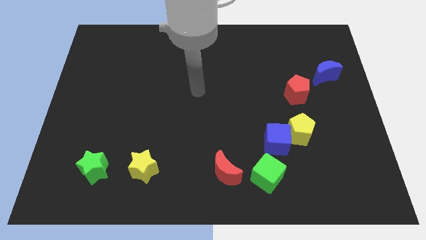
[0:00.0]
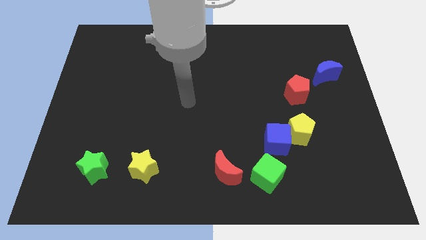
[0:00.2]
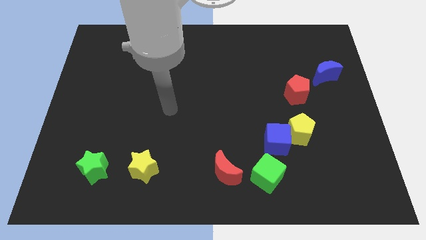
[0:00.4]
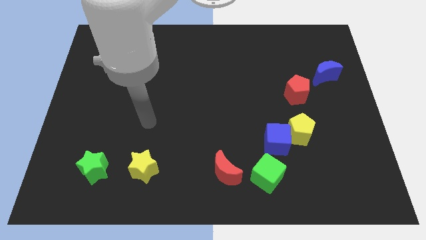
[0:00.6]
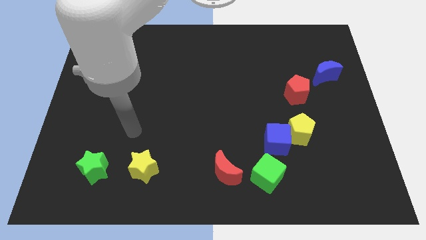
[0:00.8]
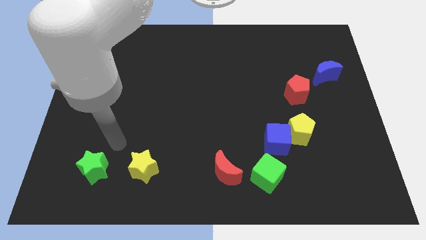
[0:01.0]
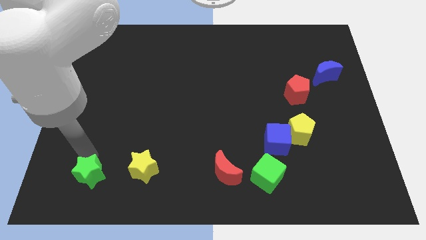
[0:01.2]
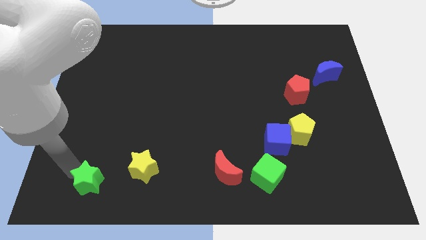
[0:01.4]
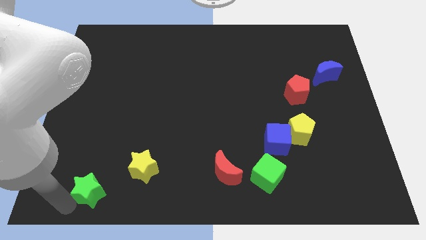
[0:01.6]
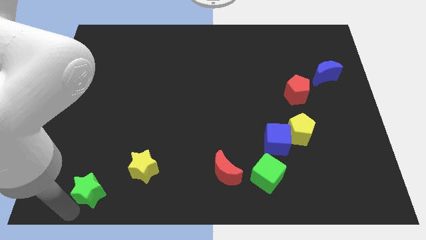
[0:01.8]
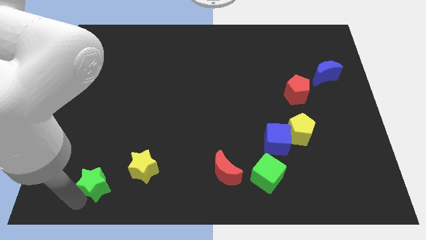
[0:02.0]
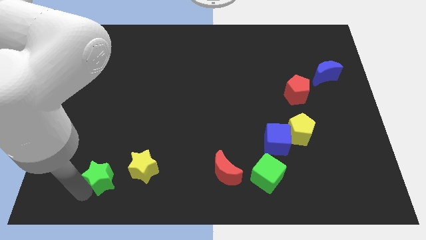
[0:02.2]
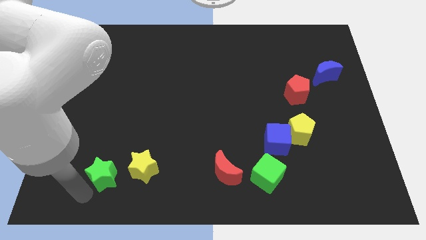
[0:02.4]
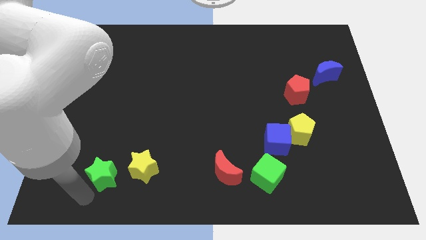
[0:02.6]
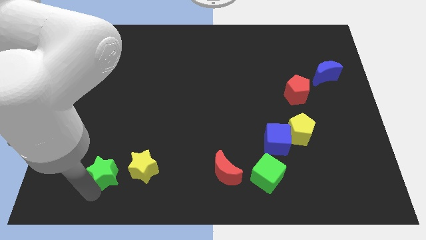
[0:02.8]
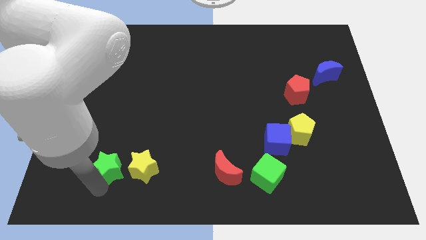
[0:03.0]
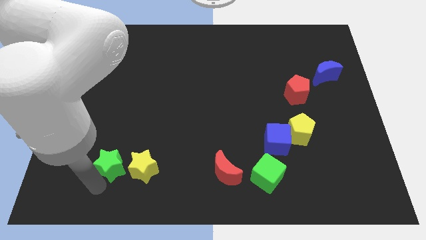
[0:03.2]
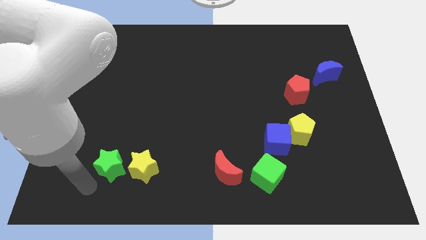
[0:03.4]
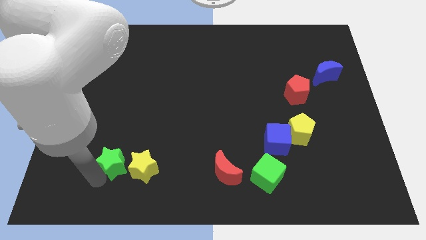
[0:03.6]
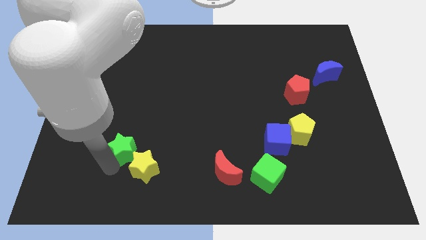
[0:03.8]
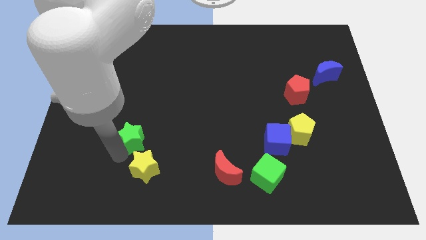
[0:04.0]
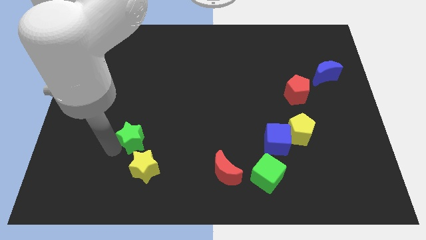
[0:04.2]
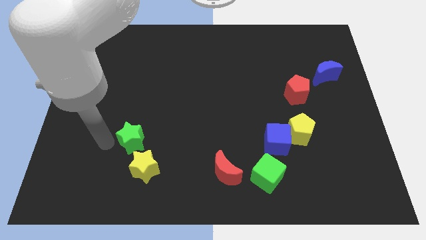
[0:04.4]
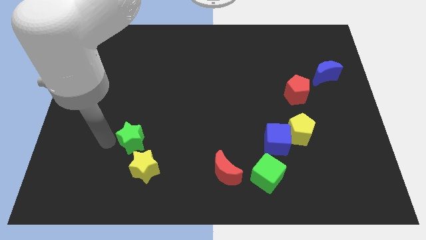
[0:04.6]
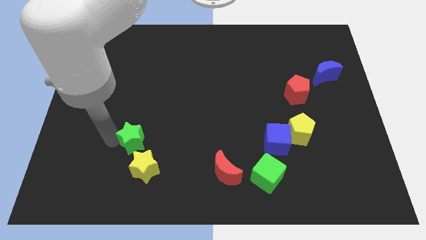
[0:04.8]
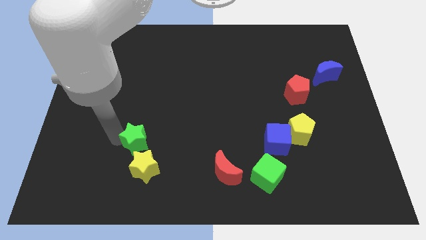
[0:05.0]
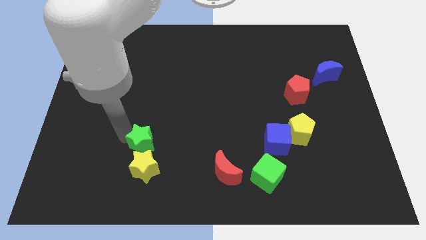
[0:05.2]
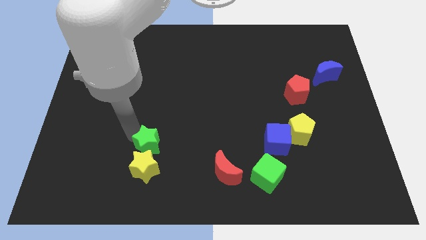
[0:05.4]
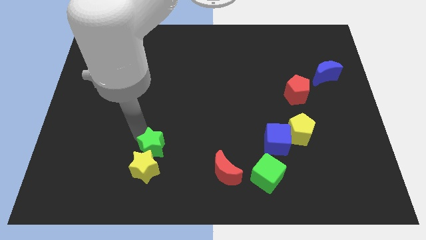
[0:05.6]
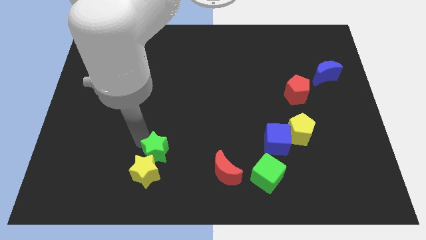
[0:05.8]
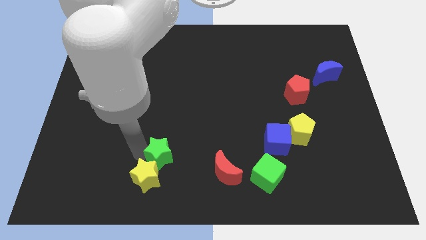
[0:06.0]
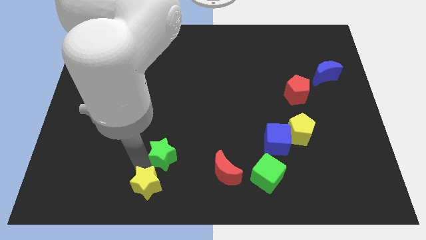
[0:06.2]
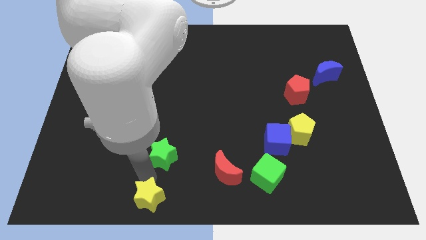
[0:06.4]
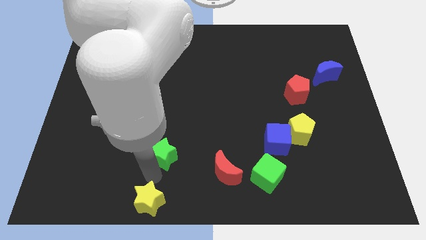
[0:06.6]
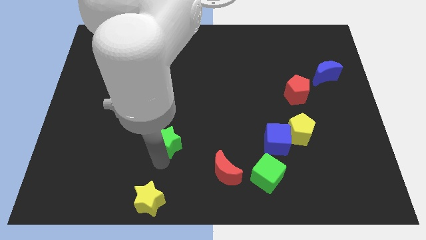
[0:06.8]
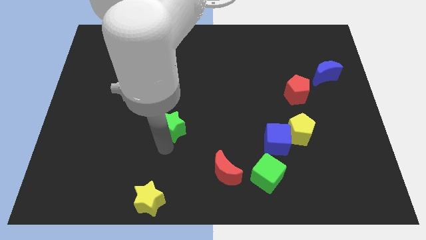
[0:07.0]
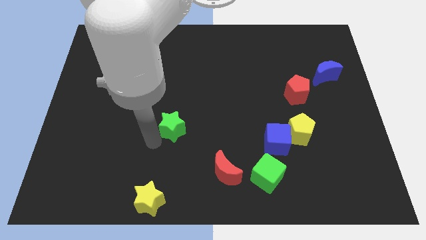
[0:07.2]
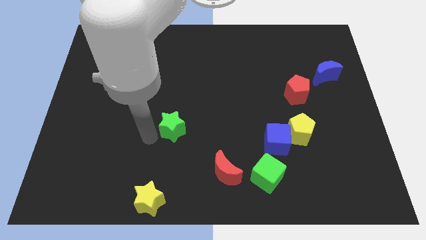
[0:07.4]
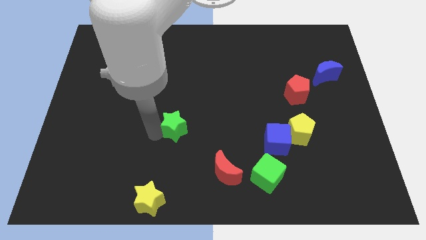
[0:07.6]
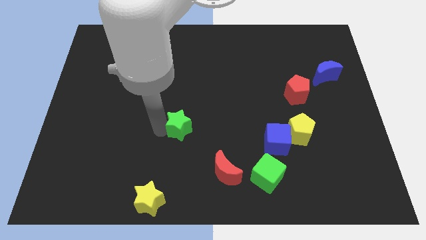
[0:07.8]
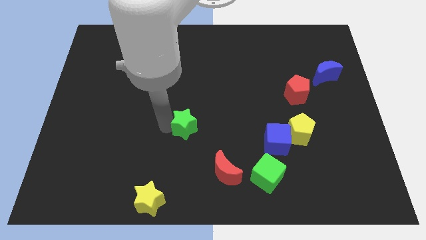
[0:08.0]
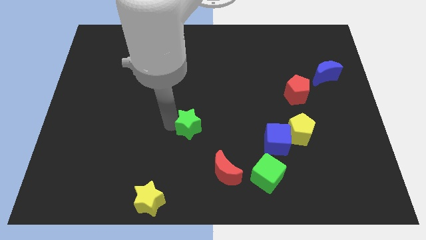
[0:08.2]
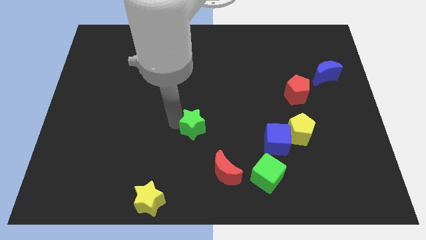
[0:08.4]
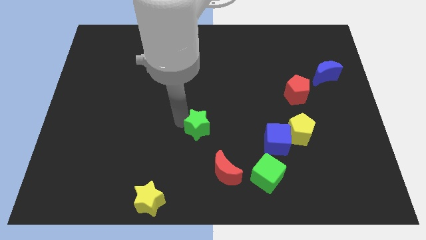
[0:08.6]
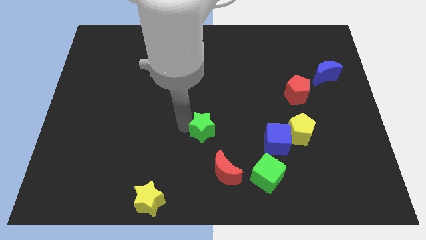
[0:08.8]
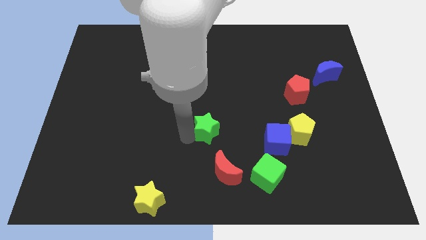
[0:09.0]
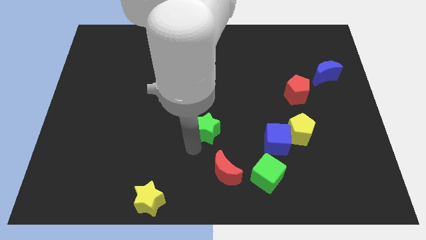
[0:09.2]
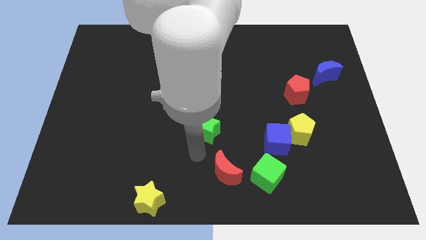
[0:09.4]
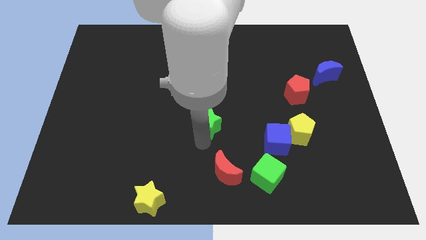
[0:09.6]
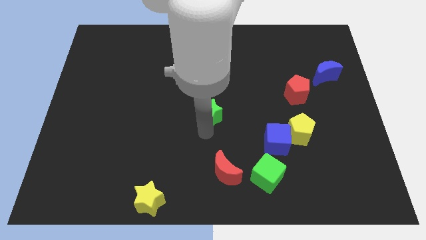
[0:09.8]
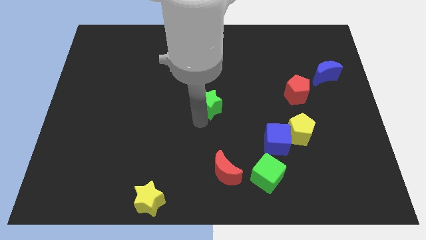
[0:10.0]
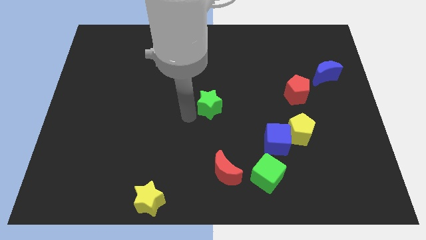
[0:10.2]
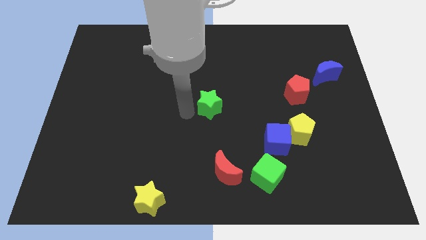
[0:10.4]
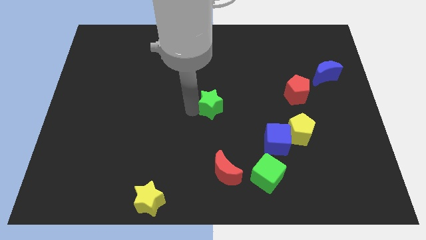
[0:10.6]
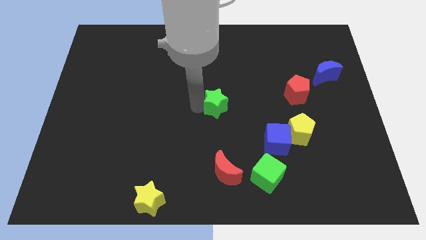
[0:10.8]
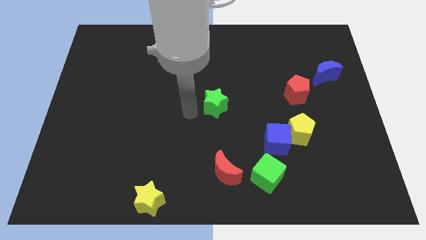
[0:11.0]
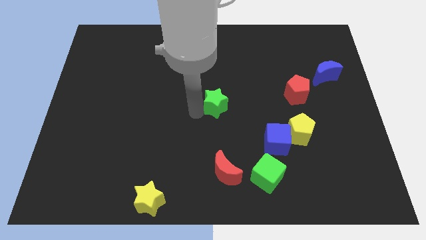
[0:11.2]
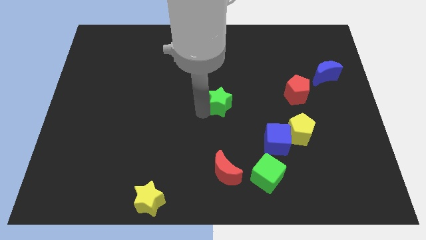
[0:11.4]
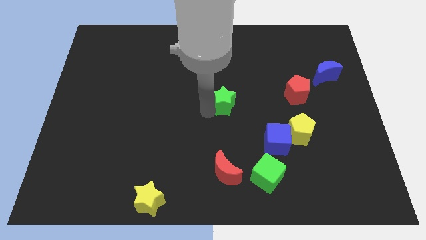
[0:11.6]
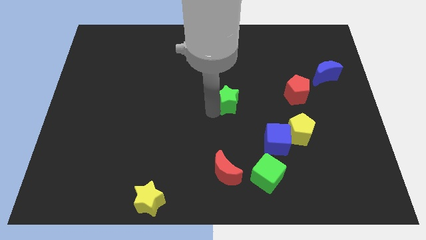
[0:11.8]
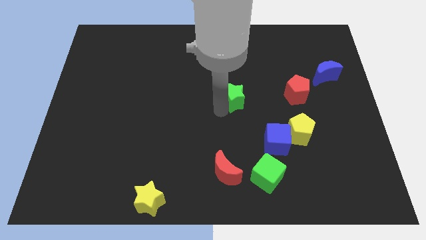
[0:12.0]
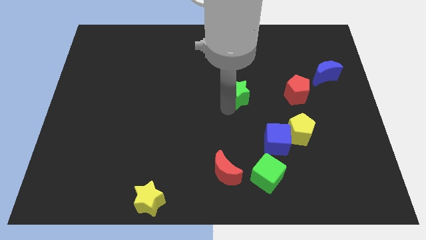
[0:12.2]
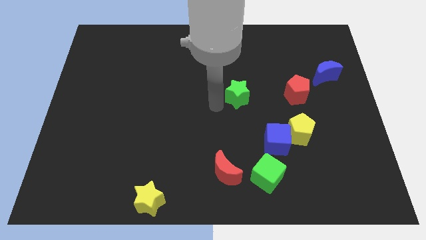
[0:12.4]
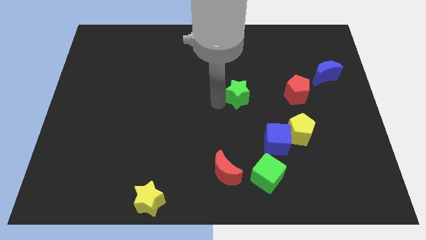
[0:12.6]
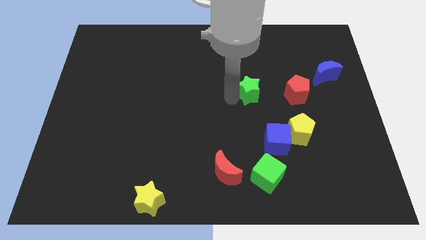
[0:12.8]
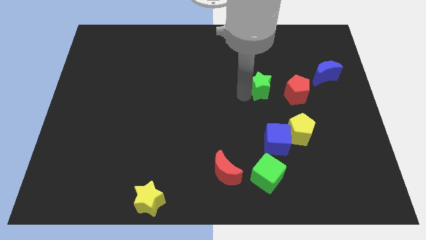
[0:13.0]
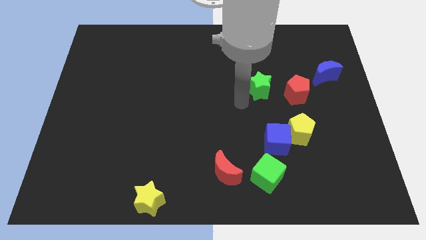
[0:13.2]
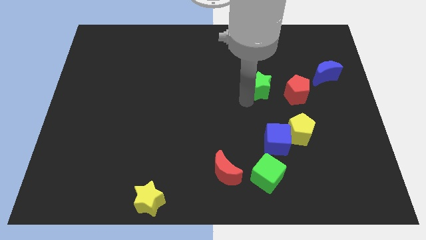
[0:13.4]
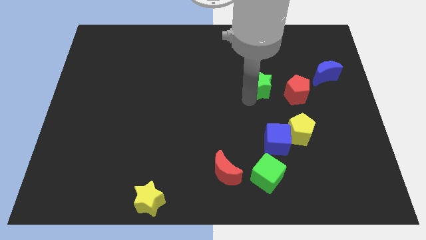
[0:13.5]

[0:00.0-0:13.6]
move the green star to the top left of the red pentagon
